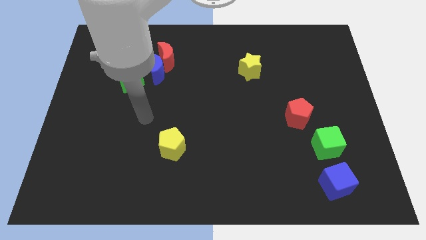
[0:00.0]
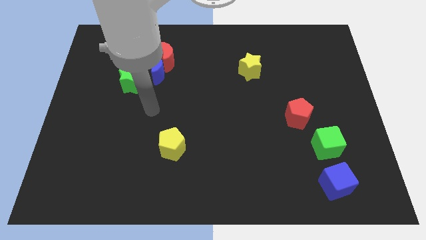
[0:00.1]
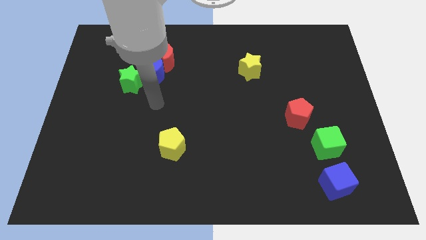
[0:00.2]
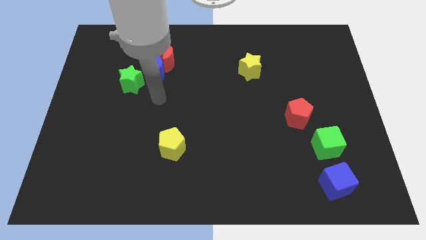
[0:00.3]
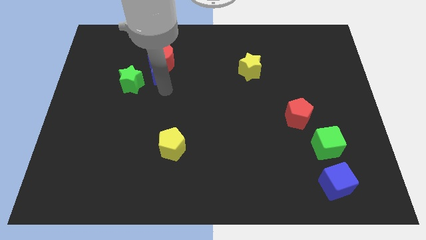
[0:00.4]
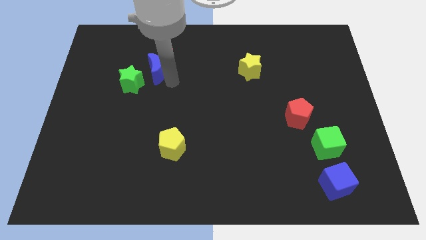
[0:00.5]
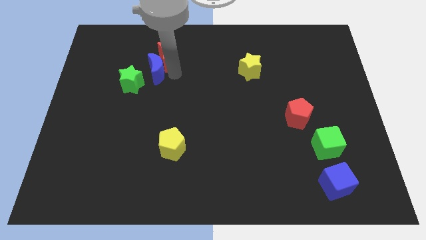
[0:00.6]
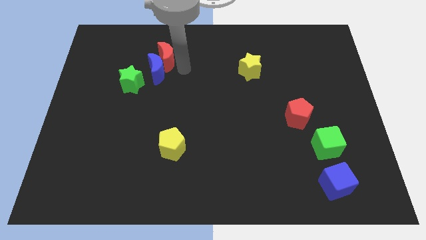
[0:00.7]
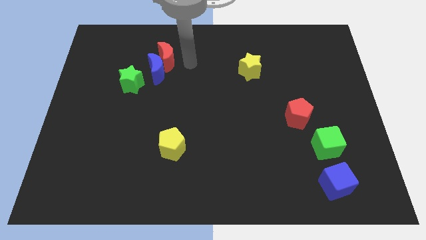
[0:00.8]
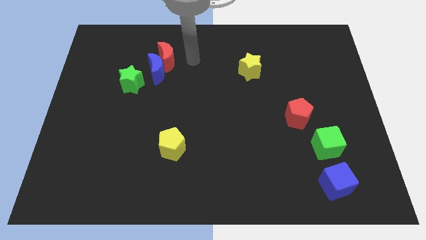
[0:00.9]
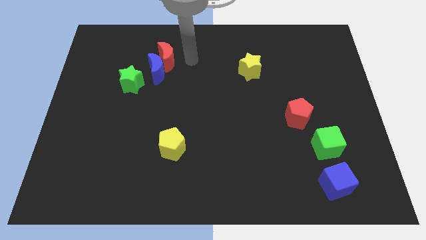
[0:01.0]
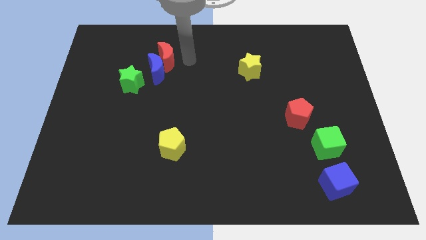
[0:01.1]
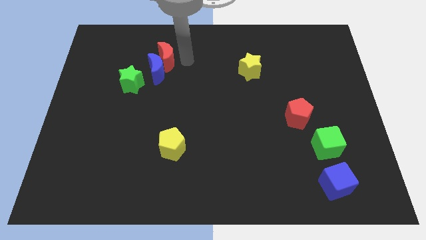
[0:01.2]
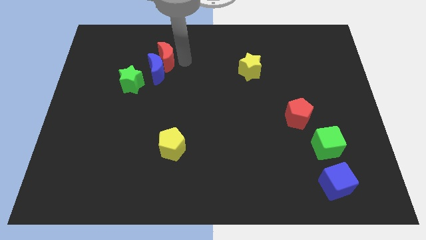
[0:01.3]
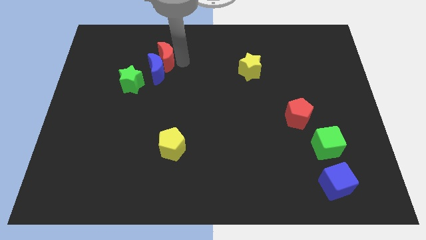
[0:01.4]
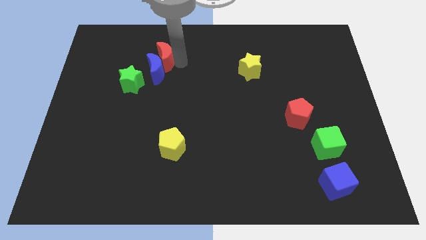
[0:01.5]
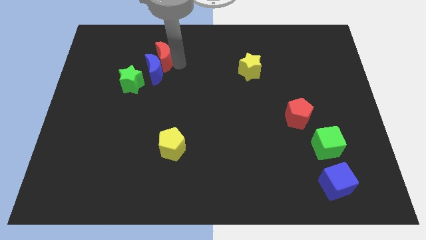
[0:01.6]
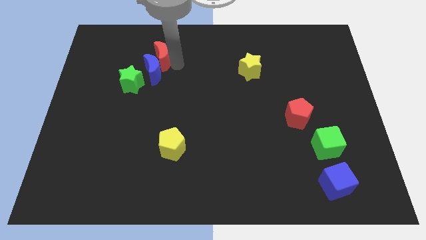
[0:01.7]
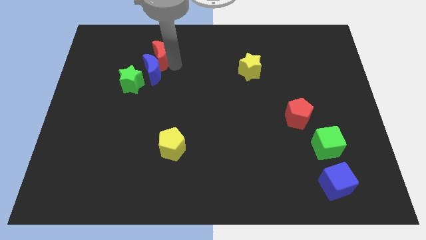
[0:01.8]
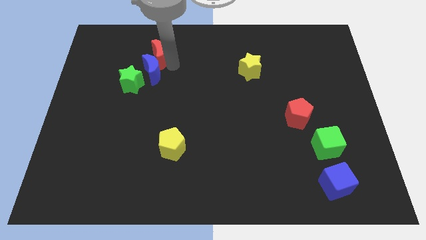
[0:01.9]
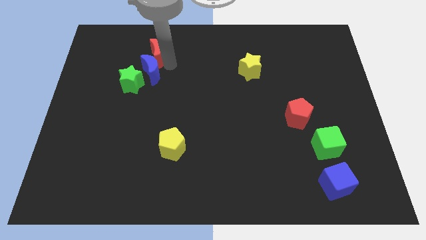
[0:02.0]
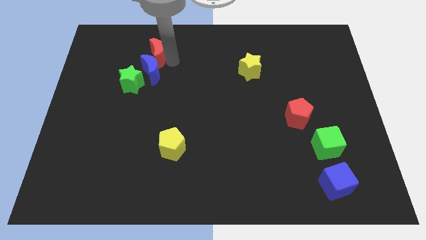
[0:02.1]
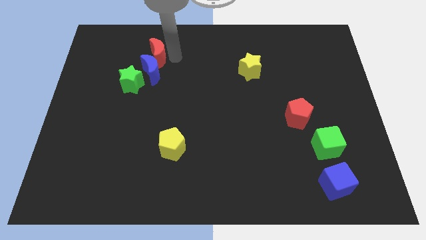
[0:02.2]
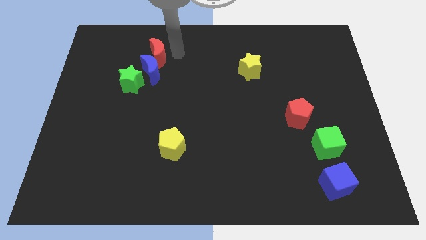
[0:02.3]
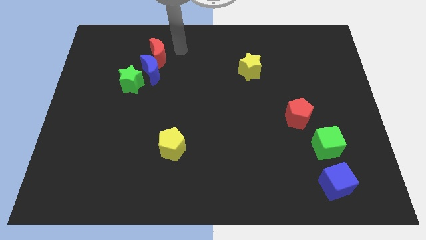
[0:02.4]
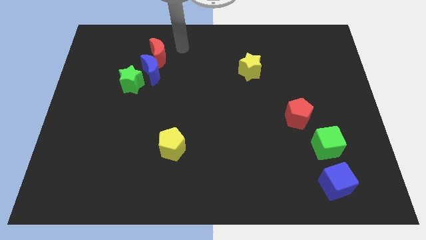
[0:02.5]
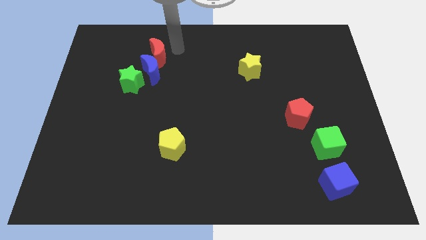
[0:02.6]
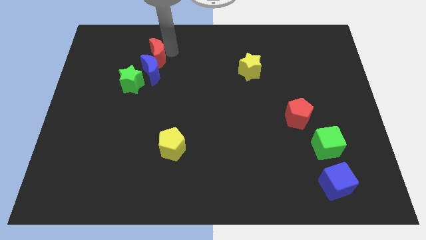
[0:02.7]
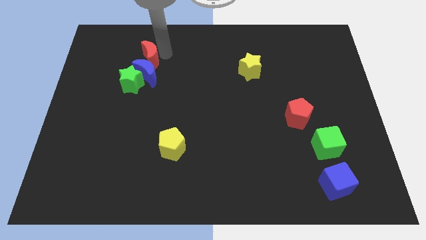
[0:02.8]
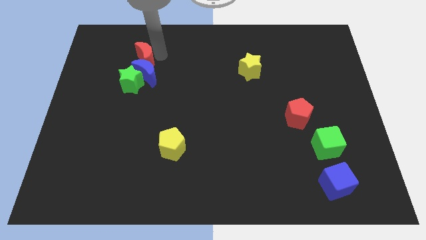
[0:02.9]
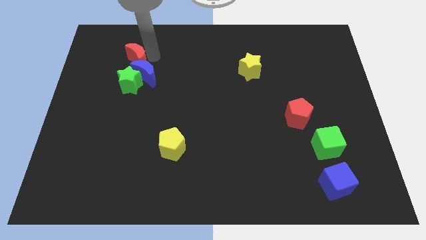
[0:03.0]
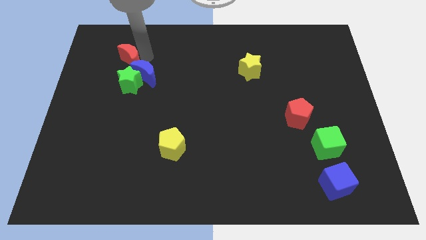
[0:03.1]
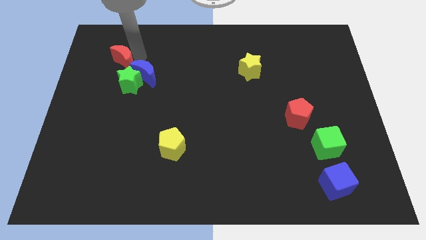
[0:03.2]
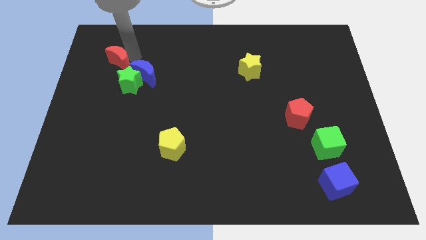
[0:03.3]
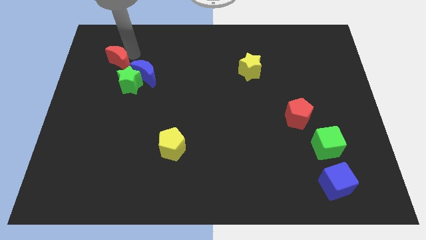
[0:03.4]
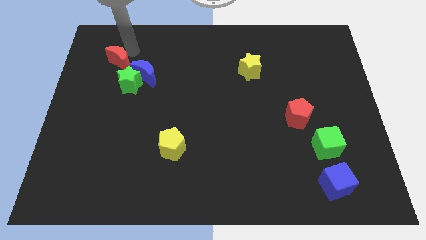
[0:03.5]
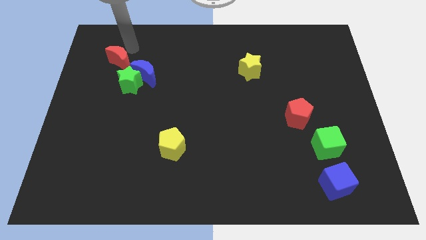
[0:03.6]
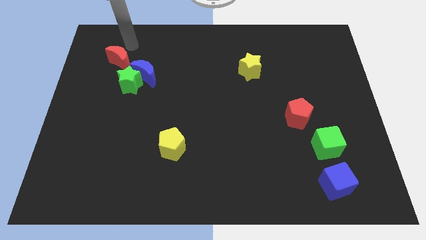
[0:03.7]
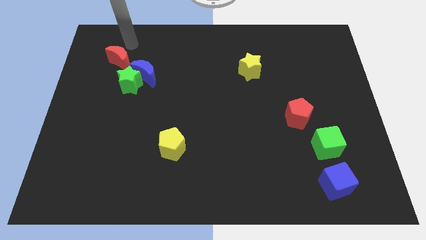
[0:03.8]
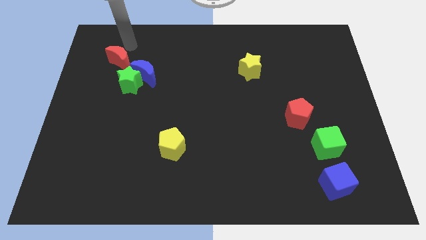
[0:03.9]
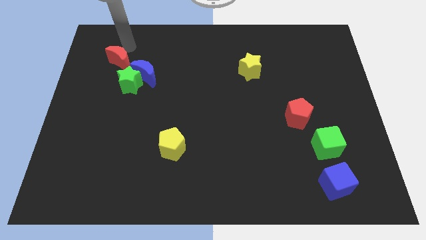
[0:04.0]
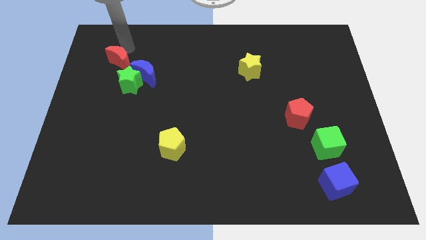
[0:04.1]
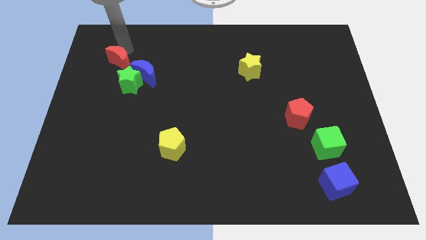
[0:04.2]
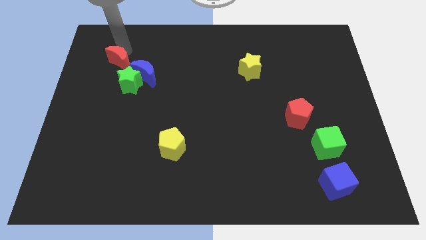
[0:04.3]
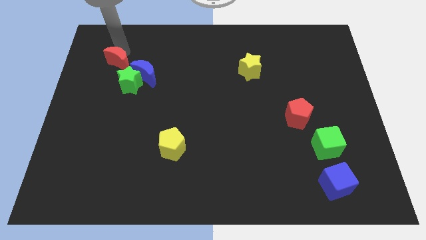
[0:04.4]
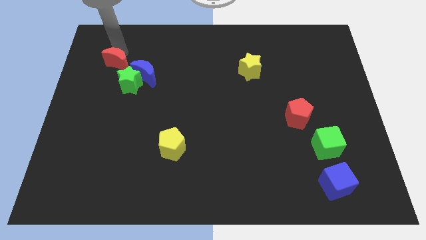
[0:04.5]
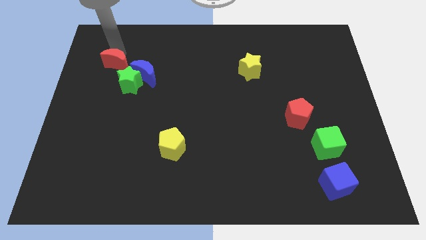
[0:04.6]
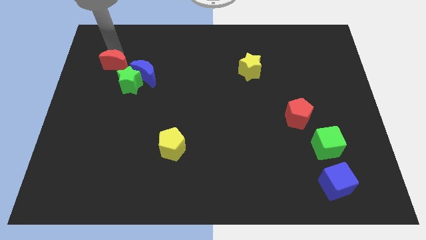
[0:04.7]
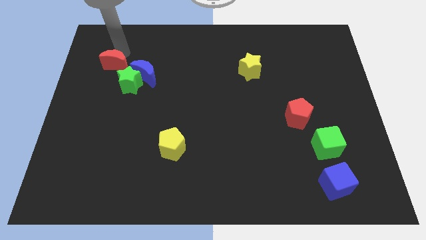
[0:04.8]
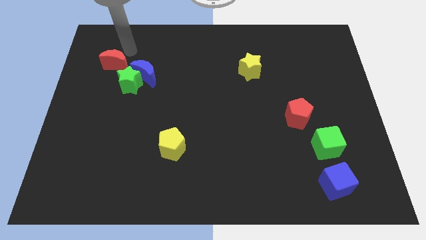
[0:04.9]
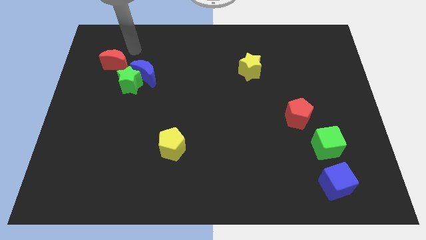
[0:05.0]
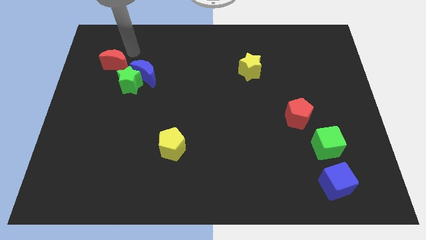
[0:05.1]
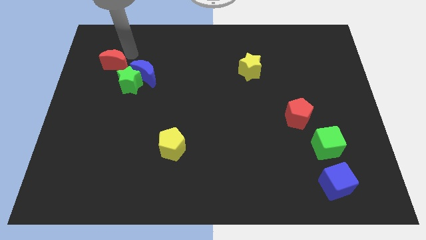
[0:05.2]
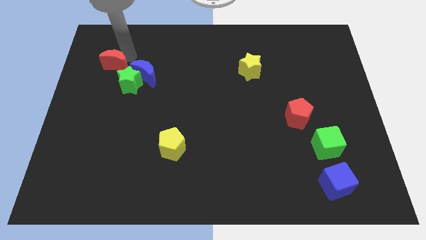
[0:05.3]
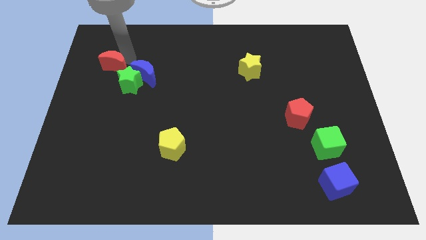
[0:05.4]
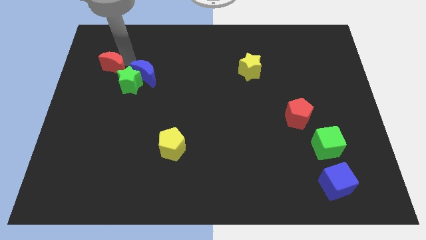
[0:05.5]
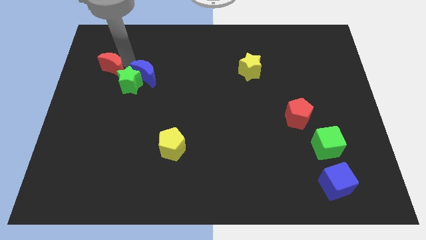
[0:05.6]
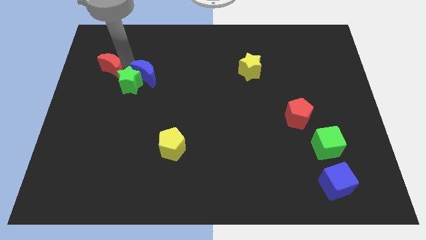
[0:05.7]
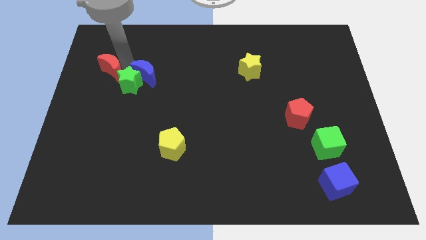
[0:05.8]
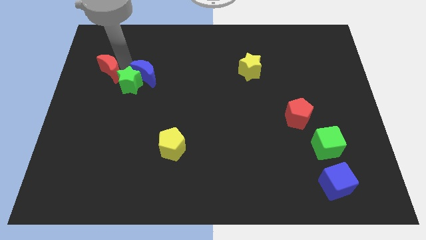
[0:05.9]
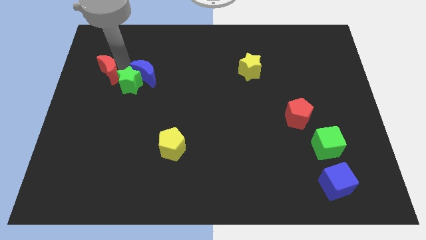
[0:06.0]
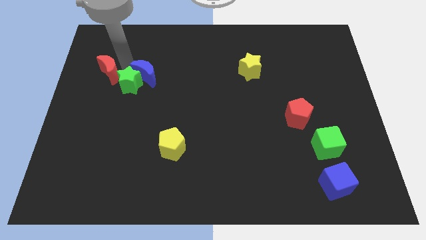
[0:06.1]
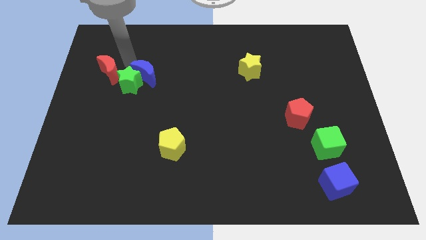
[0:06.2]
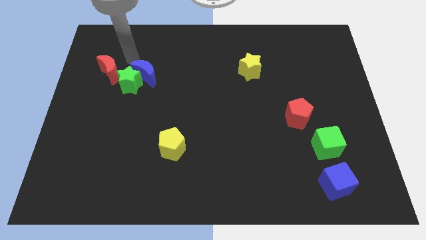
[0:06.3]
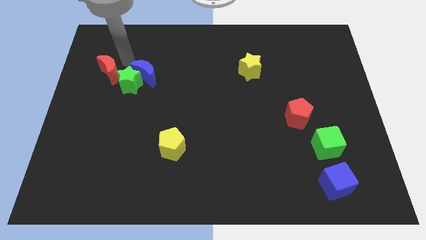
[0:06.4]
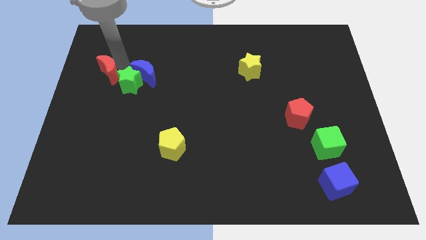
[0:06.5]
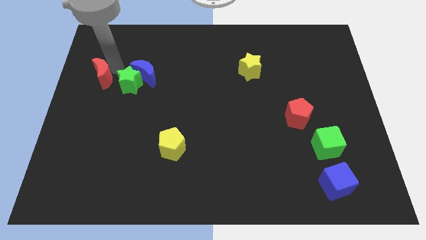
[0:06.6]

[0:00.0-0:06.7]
slide the red moon to the left side of the board

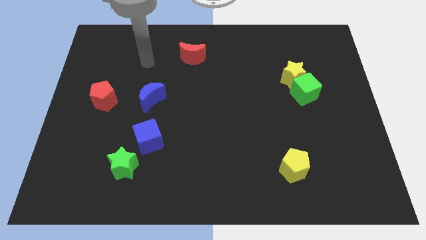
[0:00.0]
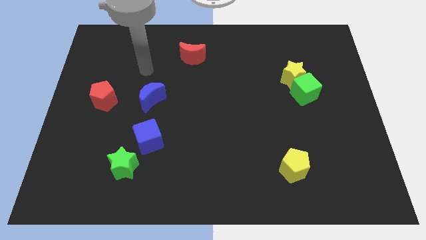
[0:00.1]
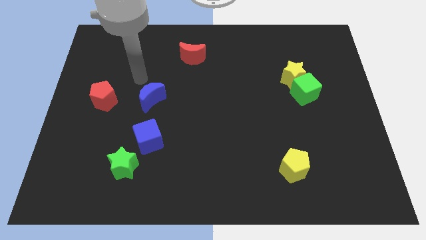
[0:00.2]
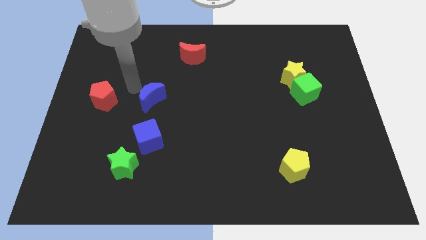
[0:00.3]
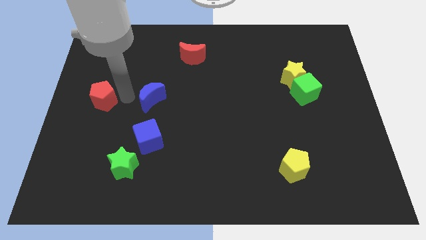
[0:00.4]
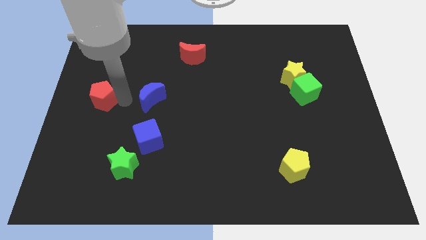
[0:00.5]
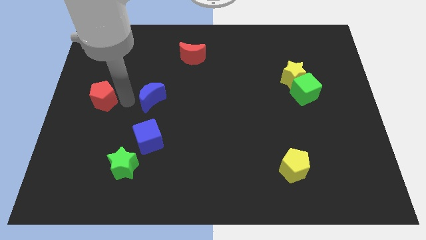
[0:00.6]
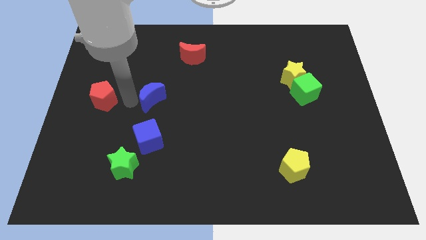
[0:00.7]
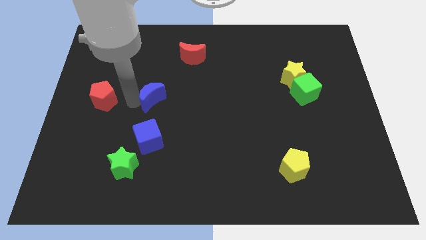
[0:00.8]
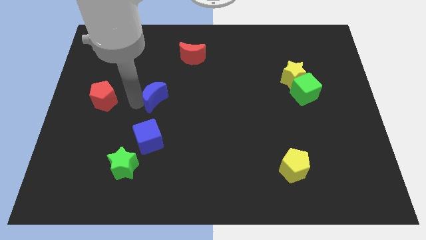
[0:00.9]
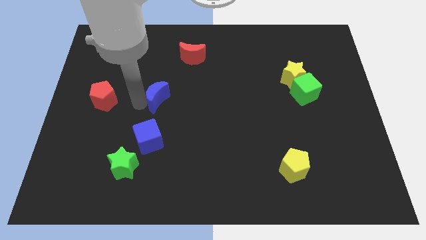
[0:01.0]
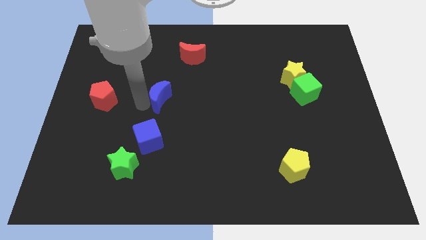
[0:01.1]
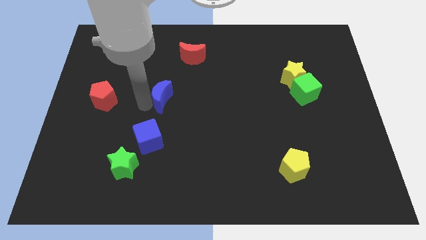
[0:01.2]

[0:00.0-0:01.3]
slide the blue moon to the center of the board
